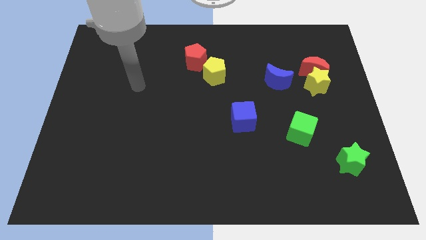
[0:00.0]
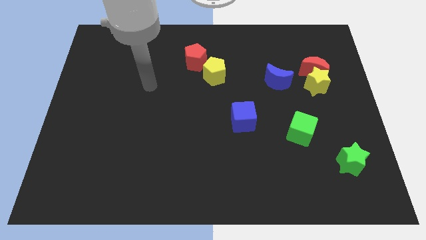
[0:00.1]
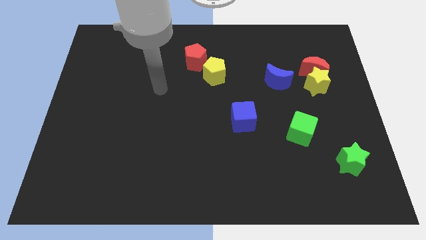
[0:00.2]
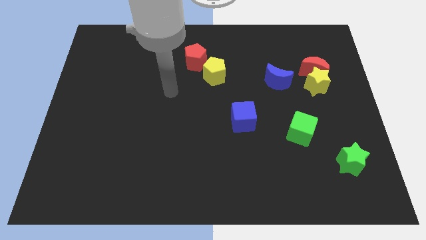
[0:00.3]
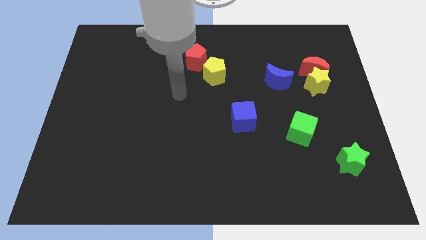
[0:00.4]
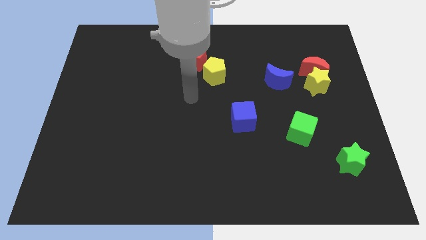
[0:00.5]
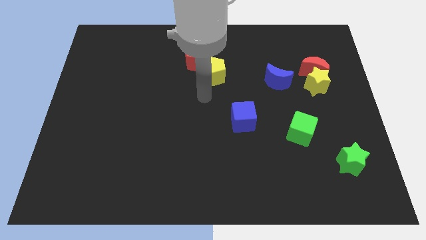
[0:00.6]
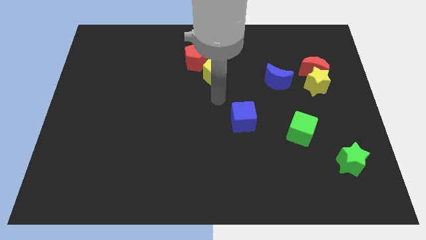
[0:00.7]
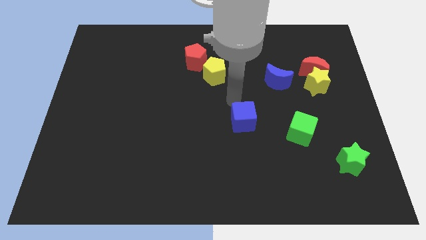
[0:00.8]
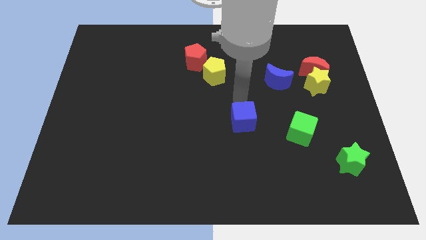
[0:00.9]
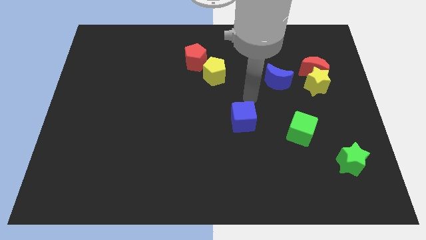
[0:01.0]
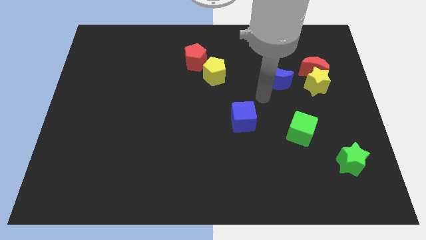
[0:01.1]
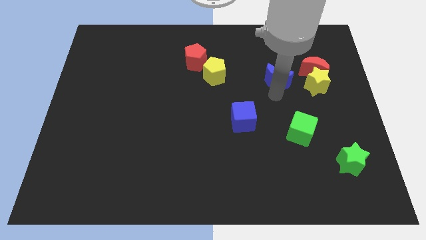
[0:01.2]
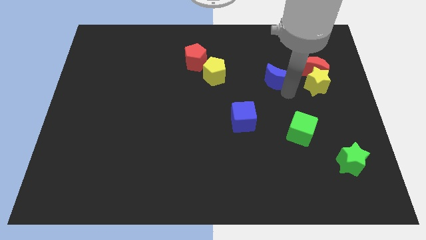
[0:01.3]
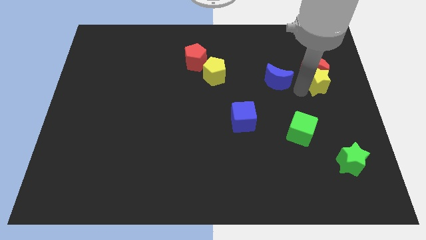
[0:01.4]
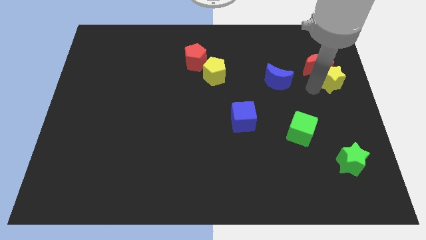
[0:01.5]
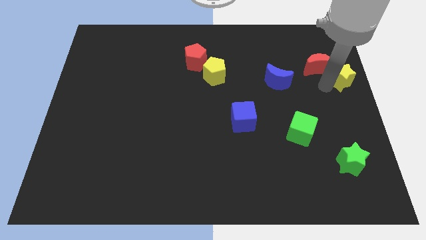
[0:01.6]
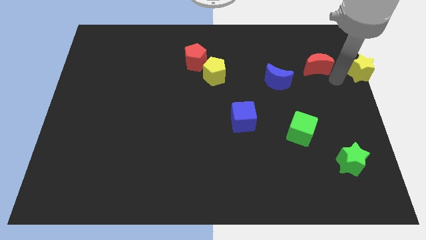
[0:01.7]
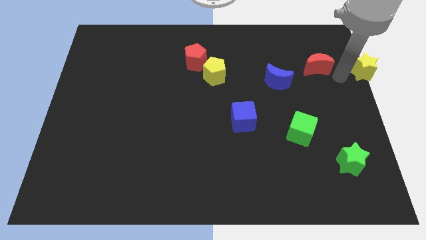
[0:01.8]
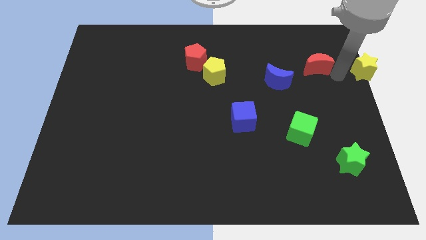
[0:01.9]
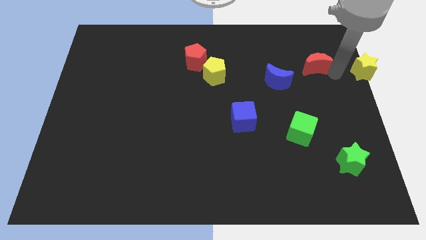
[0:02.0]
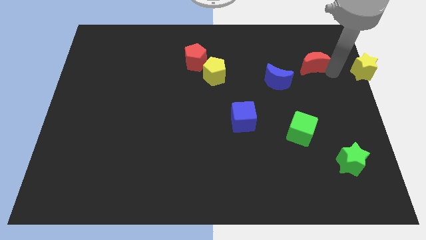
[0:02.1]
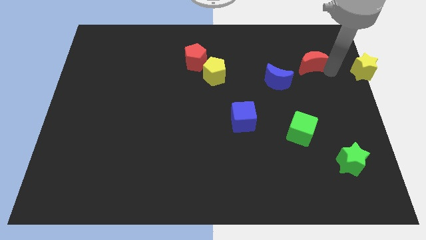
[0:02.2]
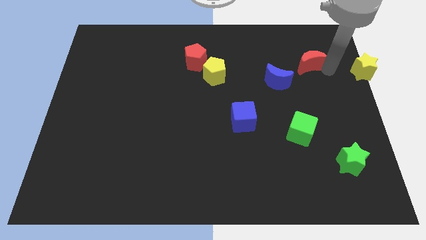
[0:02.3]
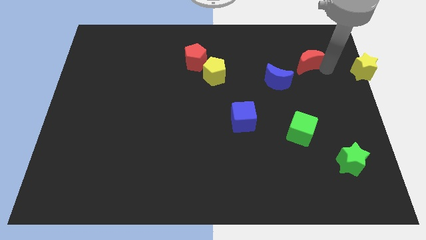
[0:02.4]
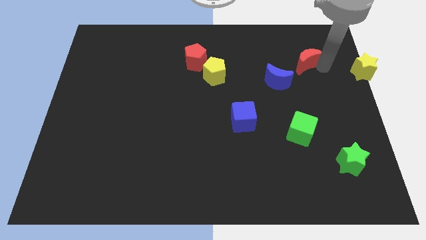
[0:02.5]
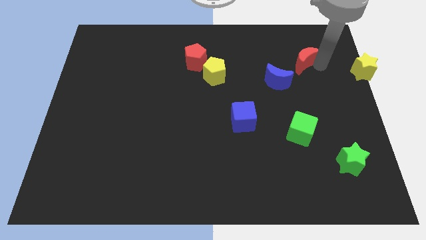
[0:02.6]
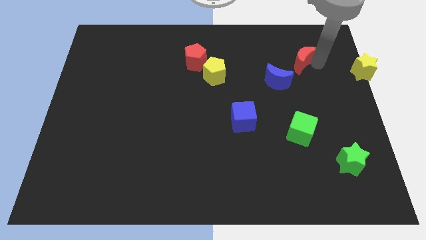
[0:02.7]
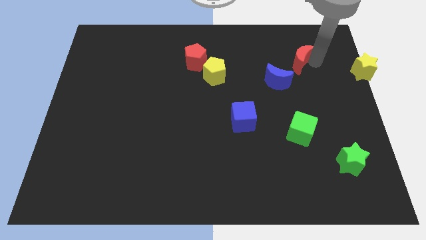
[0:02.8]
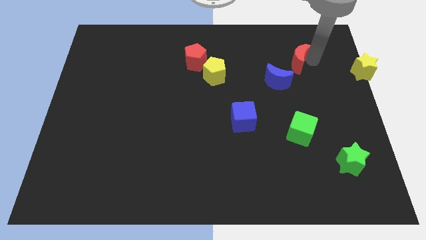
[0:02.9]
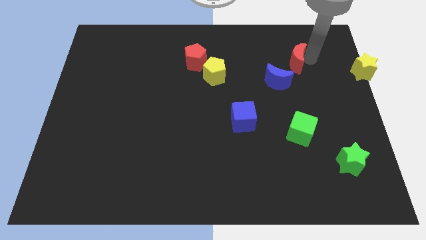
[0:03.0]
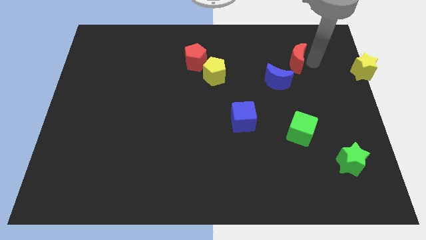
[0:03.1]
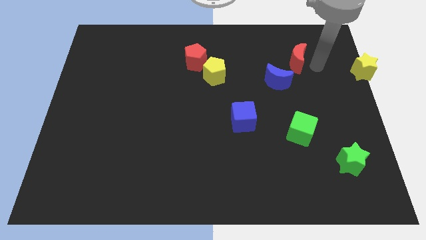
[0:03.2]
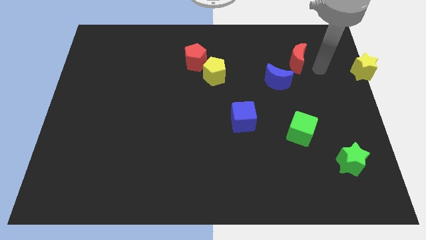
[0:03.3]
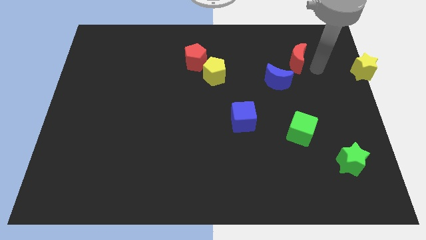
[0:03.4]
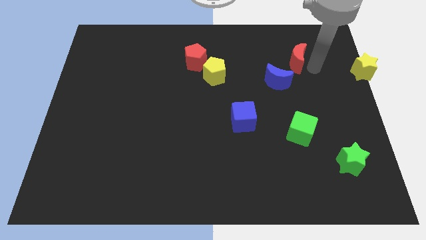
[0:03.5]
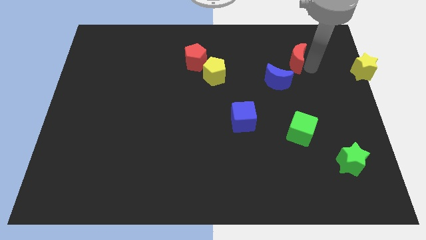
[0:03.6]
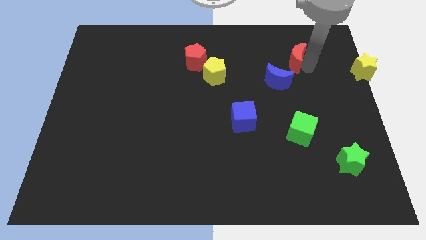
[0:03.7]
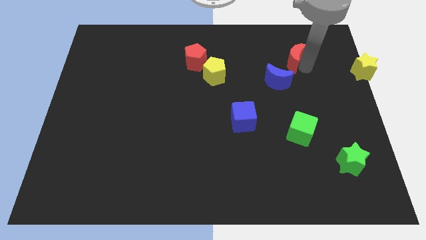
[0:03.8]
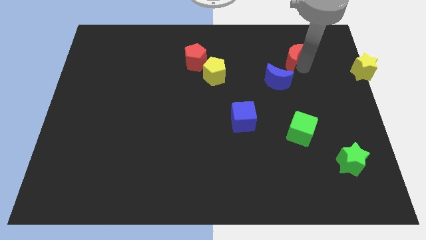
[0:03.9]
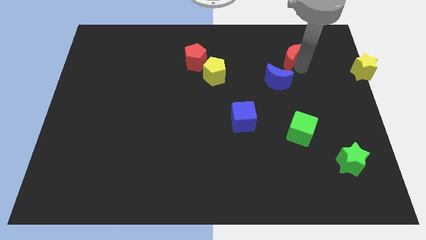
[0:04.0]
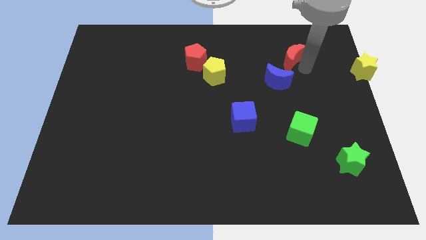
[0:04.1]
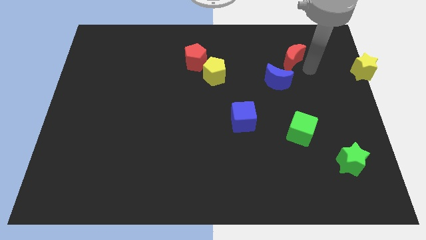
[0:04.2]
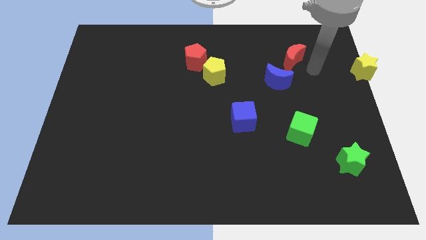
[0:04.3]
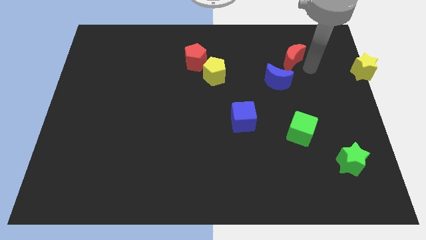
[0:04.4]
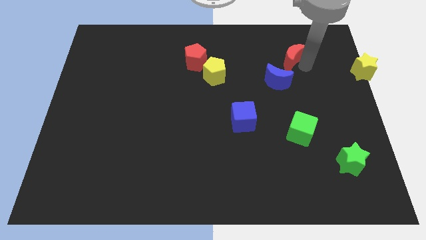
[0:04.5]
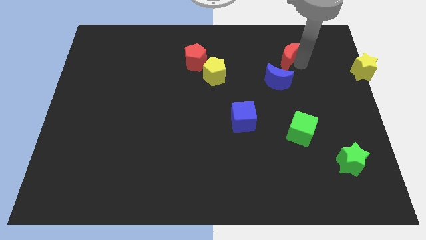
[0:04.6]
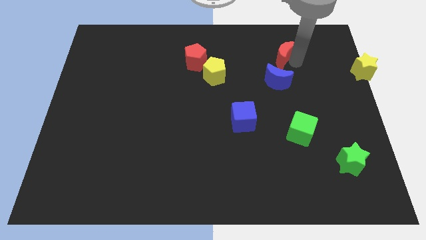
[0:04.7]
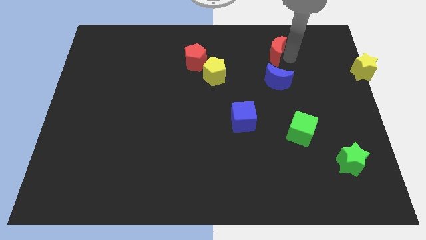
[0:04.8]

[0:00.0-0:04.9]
move the red moon to the left a bit

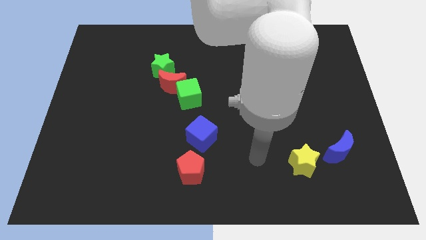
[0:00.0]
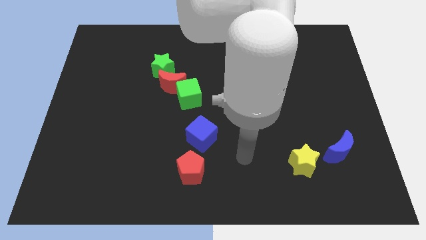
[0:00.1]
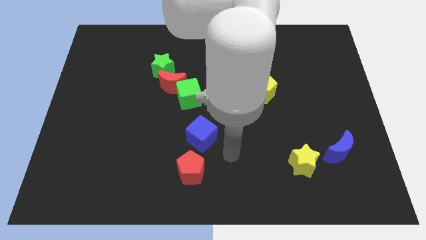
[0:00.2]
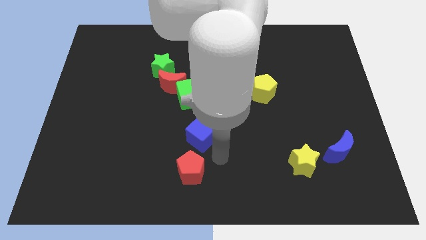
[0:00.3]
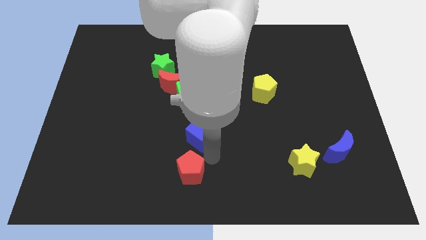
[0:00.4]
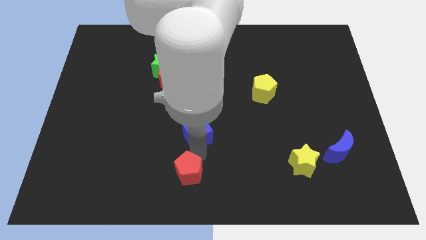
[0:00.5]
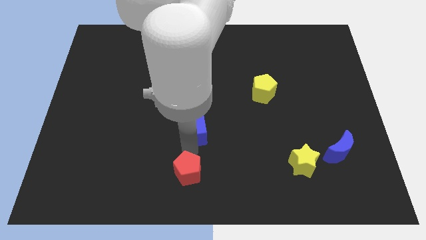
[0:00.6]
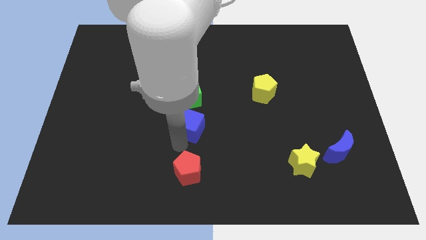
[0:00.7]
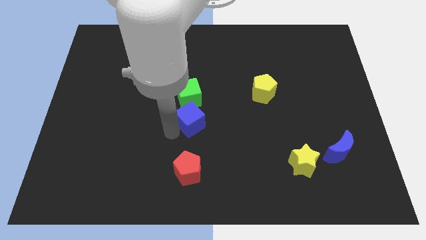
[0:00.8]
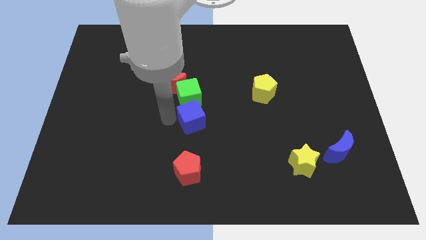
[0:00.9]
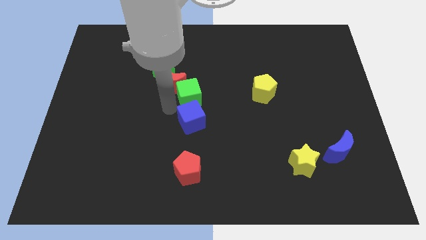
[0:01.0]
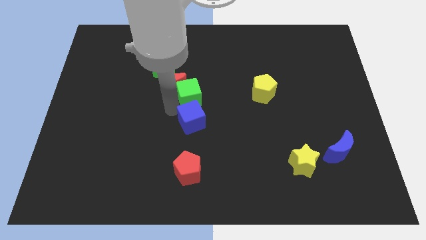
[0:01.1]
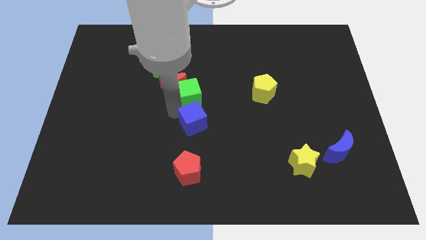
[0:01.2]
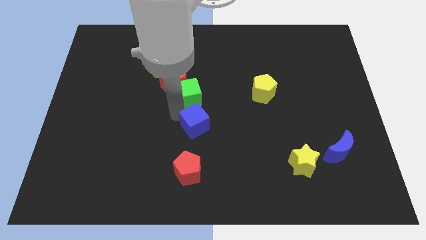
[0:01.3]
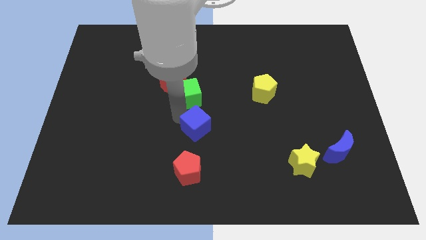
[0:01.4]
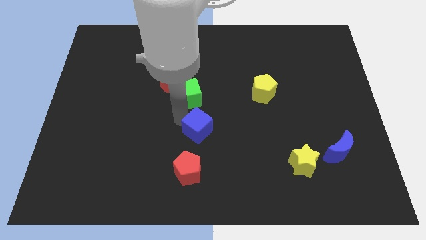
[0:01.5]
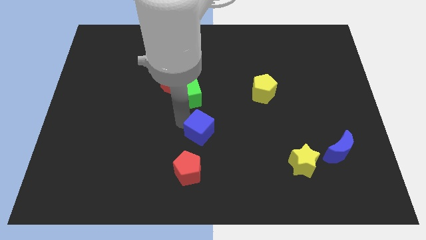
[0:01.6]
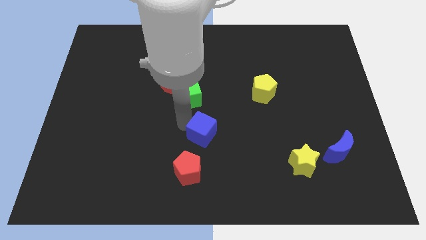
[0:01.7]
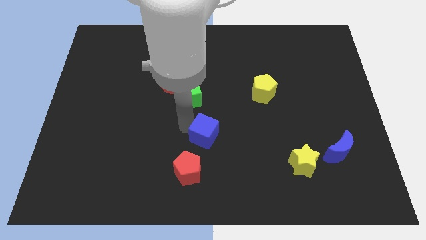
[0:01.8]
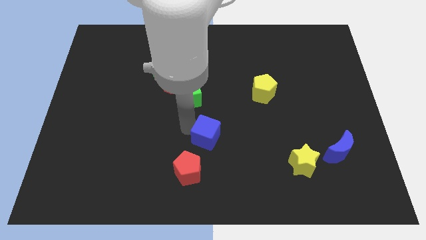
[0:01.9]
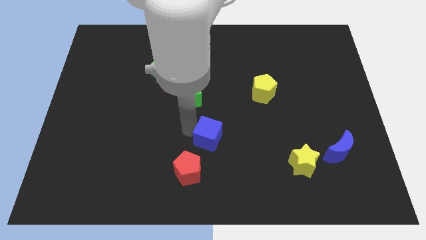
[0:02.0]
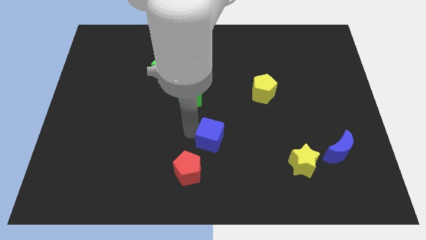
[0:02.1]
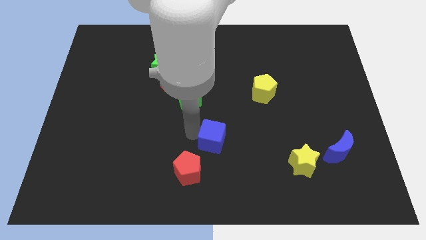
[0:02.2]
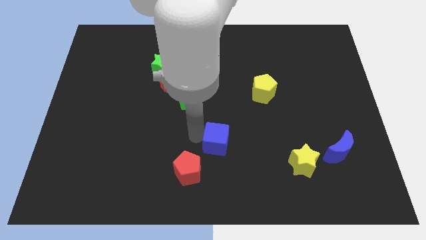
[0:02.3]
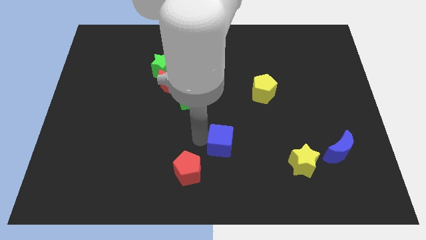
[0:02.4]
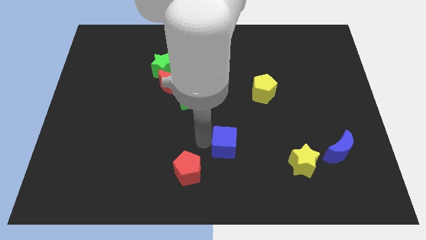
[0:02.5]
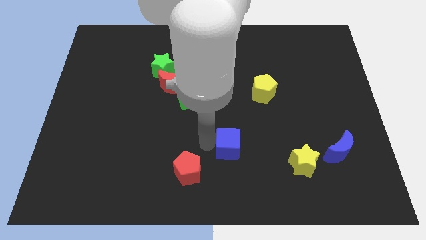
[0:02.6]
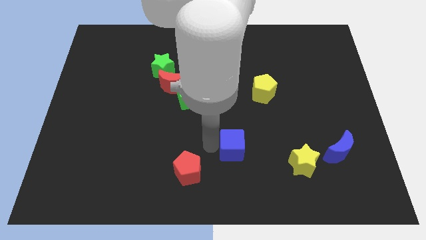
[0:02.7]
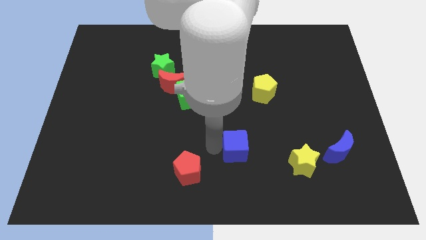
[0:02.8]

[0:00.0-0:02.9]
slide the blue cube to the right somewhat

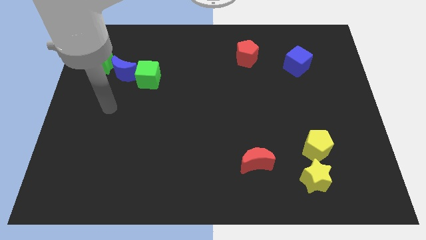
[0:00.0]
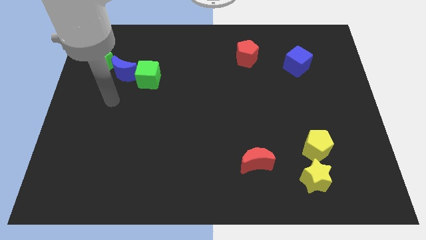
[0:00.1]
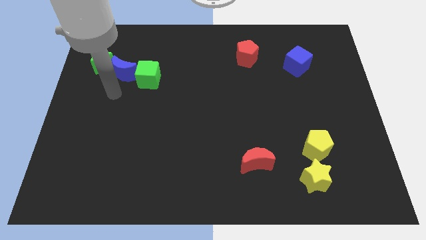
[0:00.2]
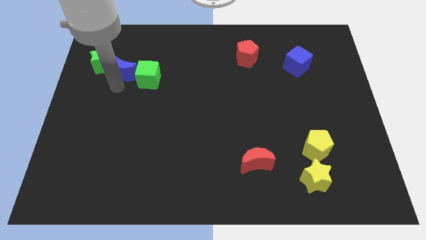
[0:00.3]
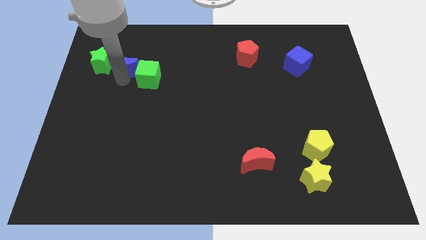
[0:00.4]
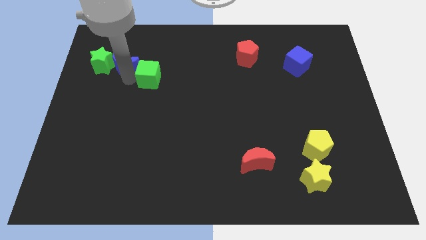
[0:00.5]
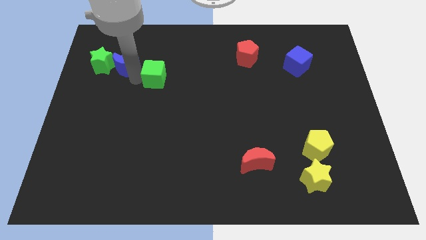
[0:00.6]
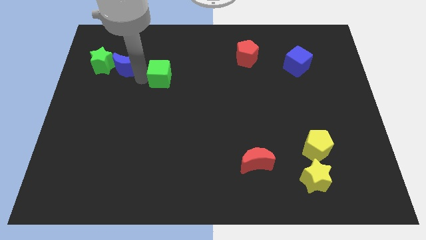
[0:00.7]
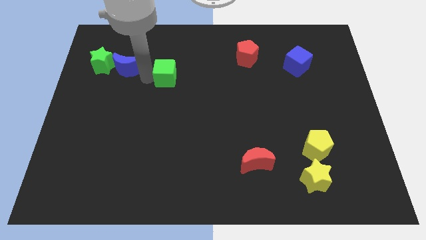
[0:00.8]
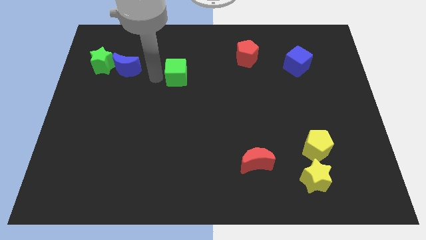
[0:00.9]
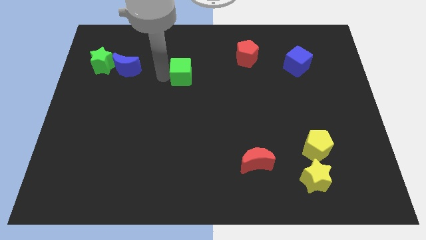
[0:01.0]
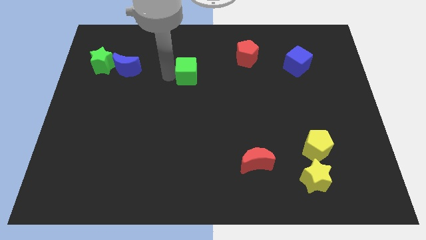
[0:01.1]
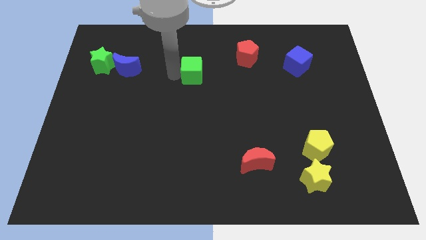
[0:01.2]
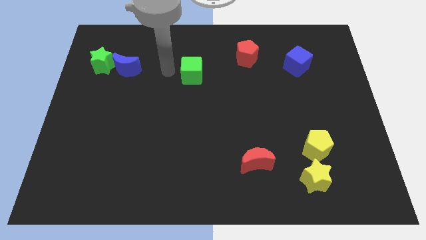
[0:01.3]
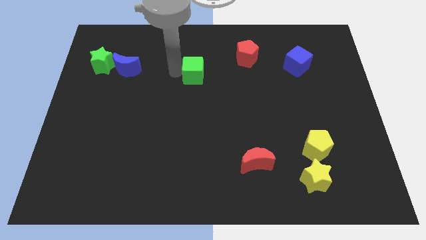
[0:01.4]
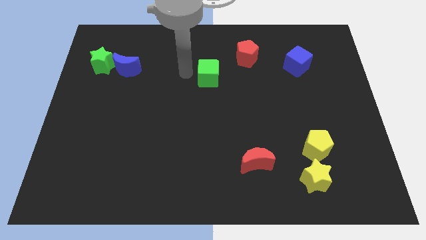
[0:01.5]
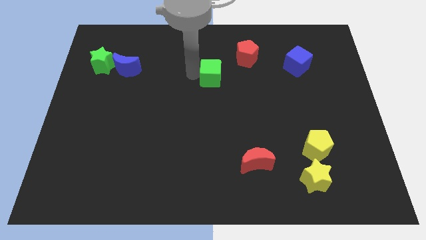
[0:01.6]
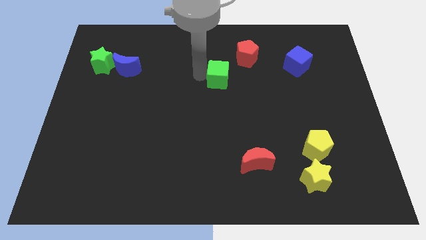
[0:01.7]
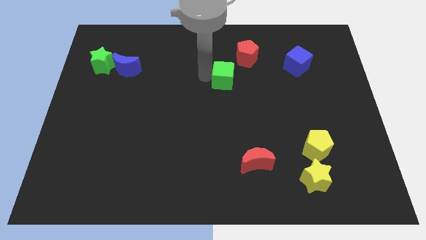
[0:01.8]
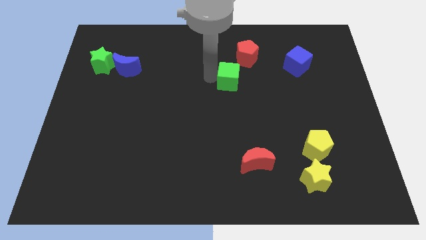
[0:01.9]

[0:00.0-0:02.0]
move the green cube to the right
